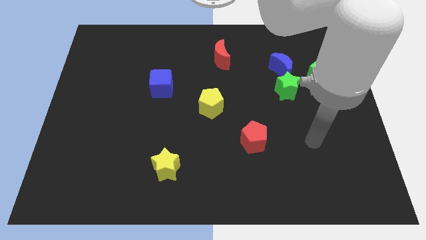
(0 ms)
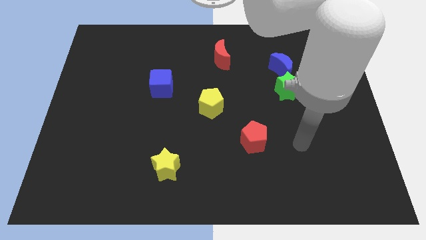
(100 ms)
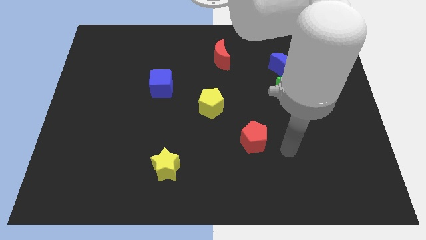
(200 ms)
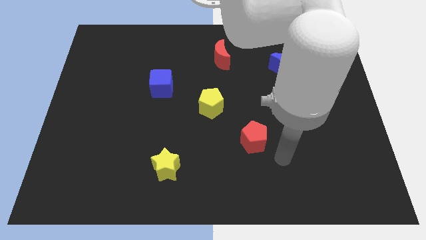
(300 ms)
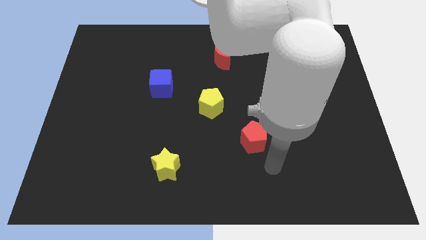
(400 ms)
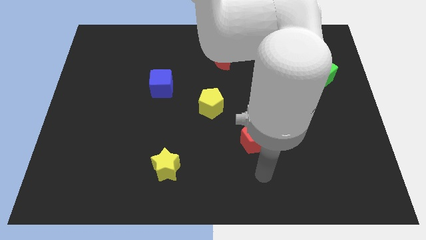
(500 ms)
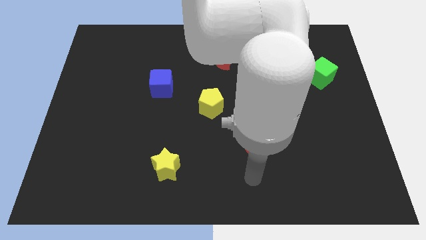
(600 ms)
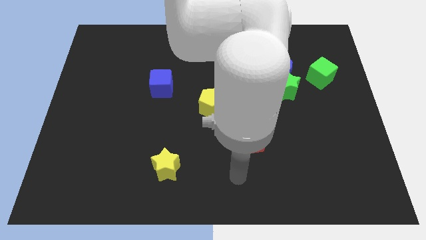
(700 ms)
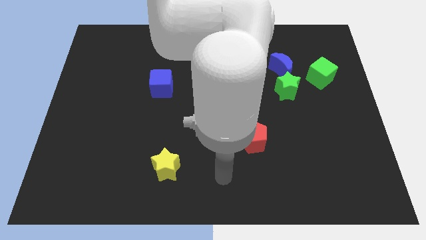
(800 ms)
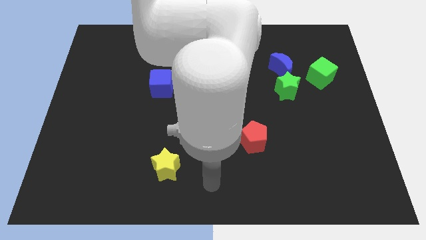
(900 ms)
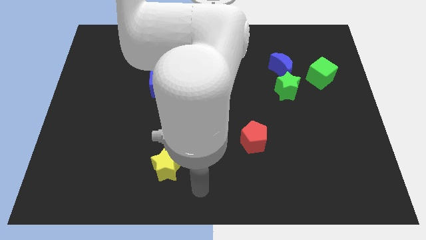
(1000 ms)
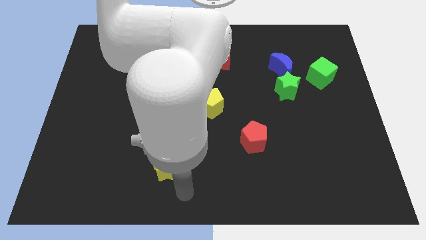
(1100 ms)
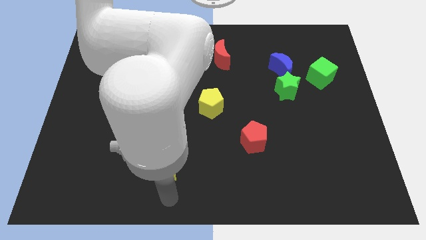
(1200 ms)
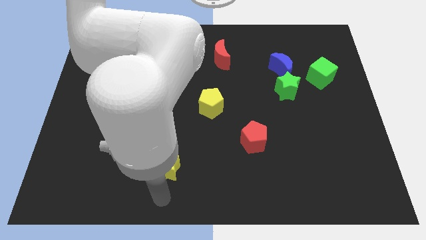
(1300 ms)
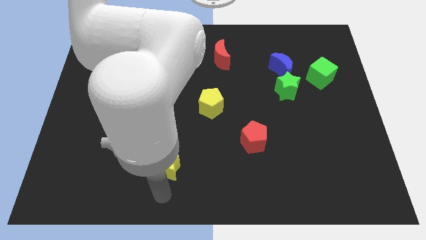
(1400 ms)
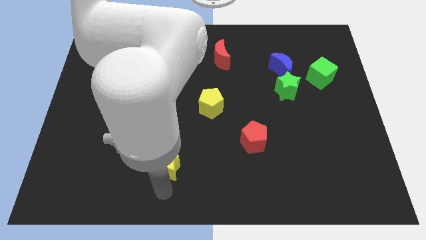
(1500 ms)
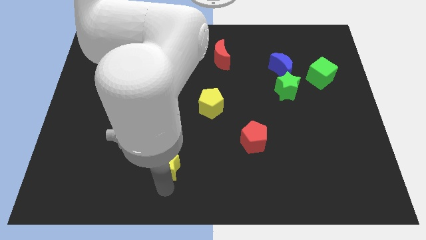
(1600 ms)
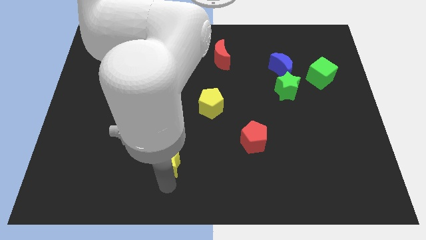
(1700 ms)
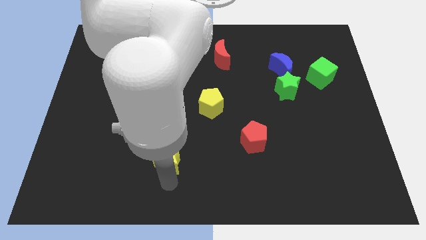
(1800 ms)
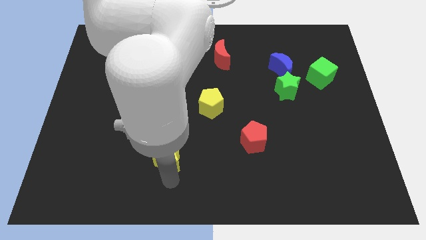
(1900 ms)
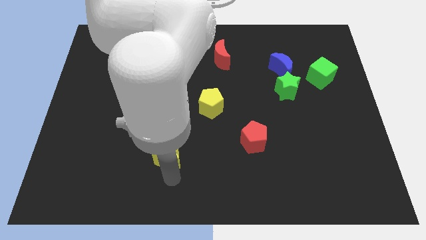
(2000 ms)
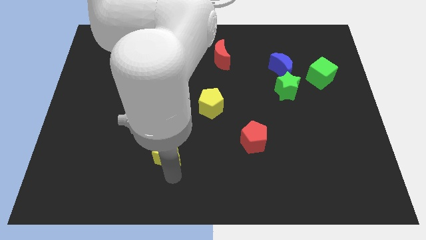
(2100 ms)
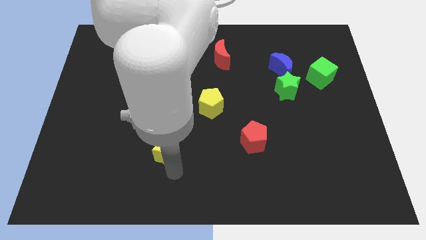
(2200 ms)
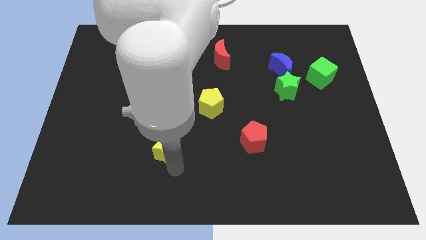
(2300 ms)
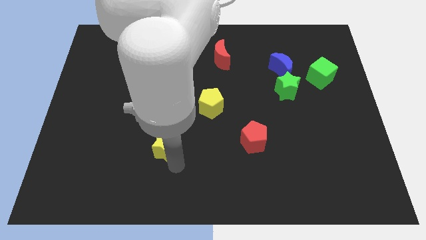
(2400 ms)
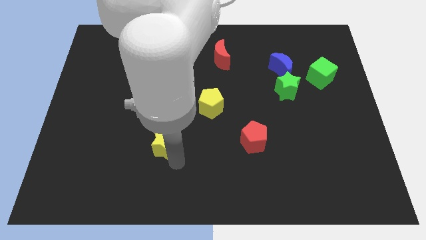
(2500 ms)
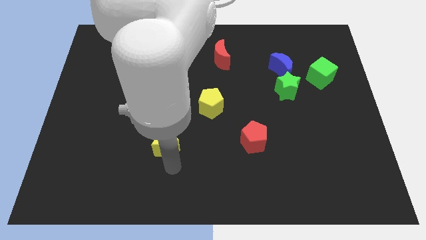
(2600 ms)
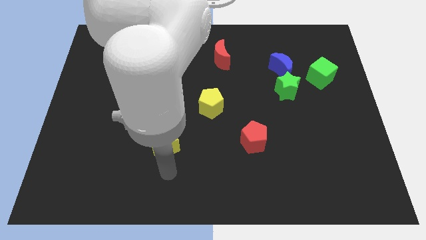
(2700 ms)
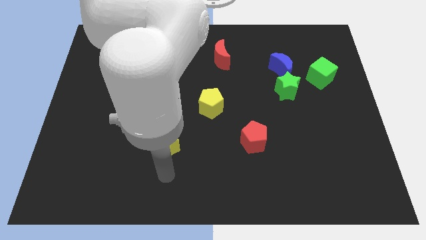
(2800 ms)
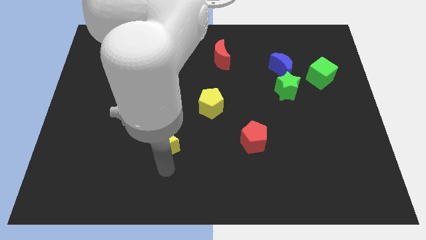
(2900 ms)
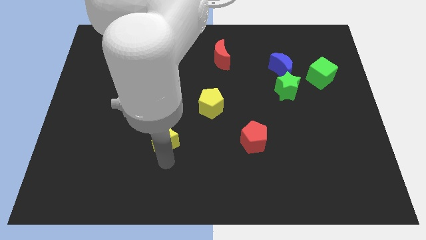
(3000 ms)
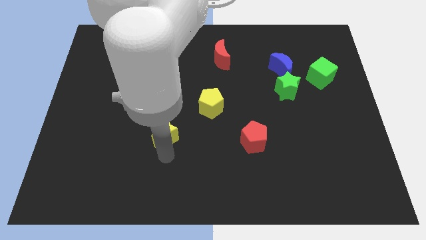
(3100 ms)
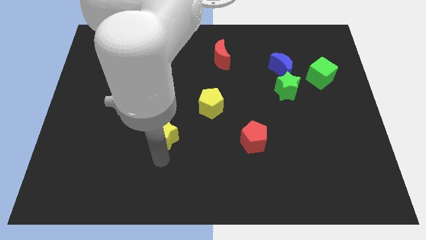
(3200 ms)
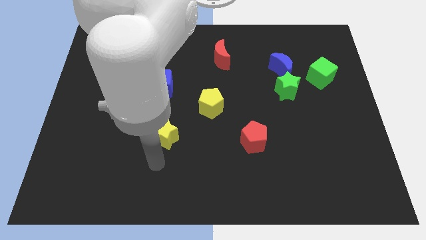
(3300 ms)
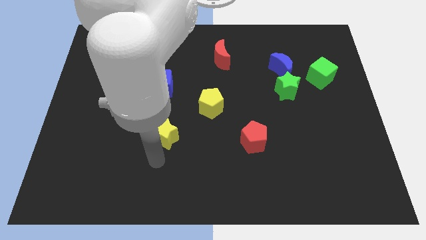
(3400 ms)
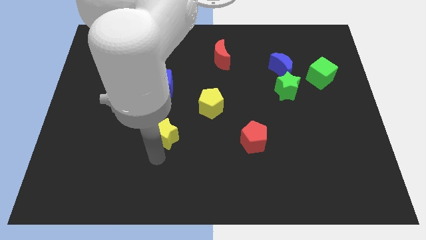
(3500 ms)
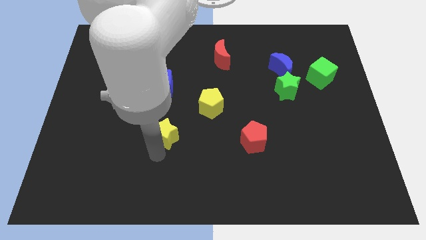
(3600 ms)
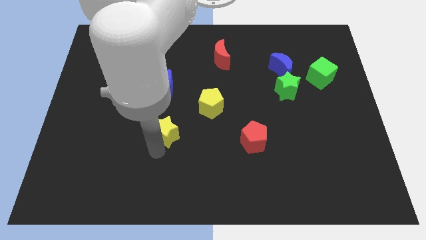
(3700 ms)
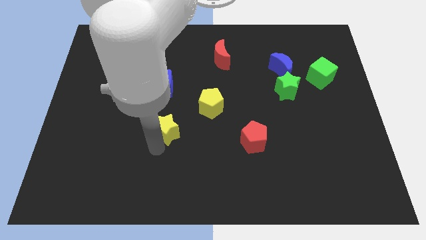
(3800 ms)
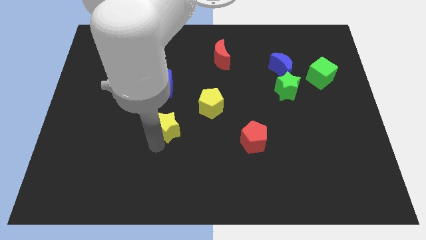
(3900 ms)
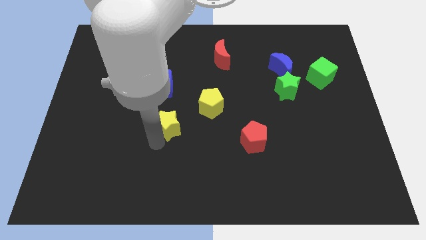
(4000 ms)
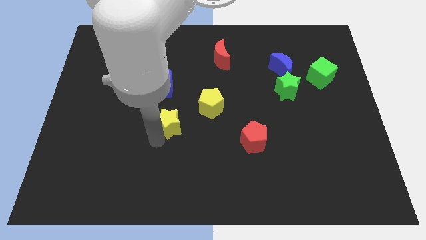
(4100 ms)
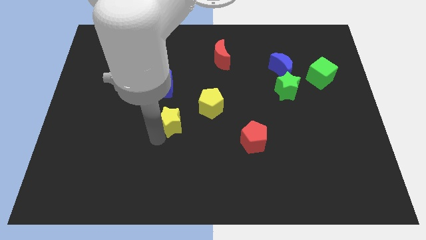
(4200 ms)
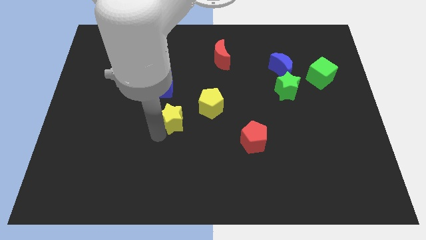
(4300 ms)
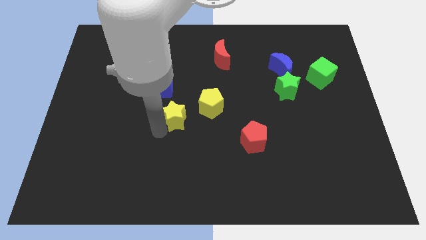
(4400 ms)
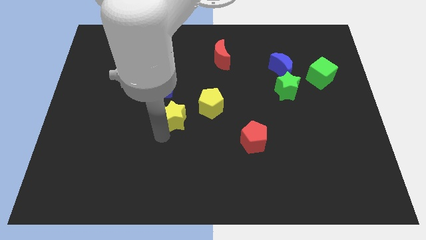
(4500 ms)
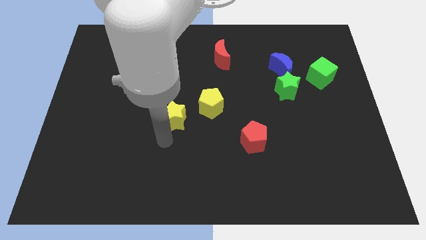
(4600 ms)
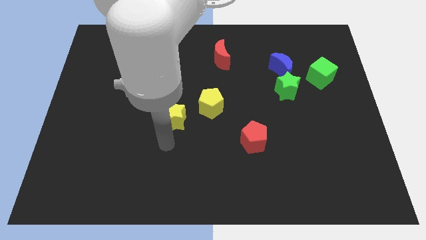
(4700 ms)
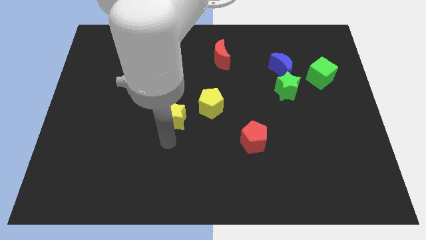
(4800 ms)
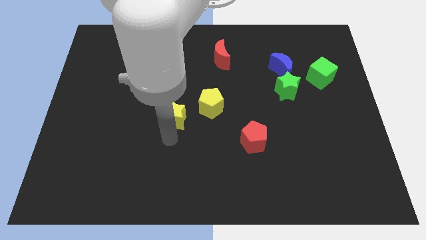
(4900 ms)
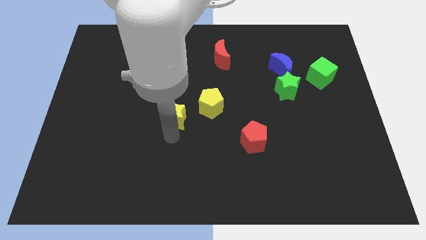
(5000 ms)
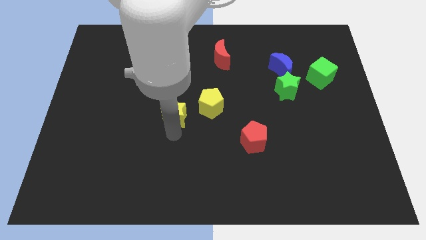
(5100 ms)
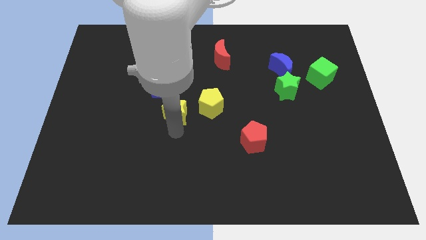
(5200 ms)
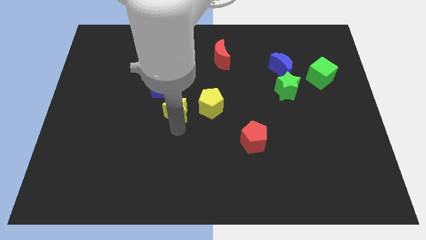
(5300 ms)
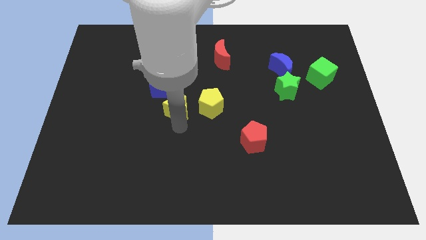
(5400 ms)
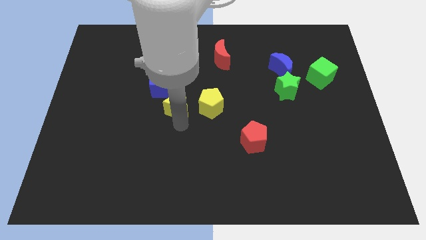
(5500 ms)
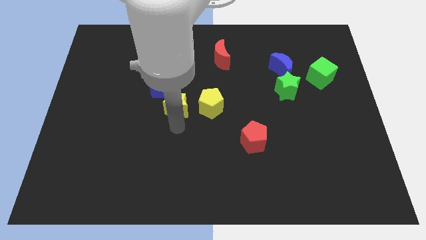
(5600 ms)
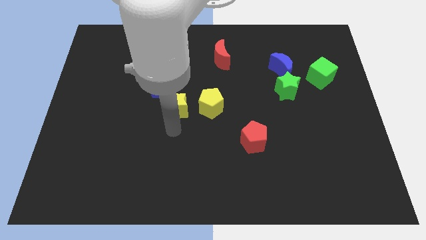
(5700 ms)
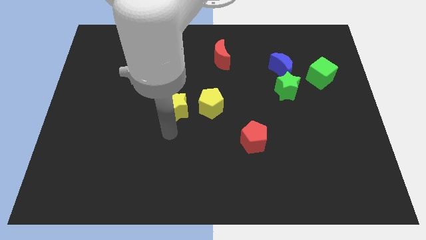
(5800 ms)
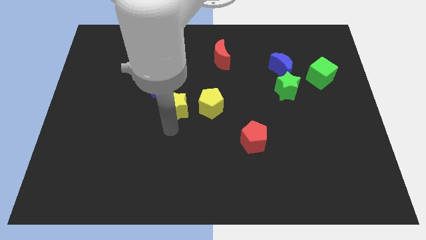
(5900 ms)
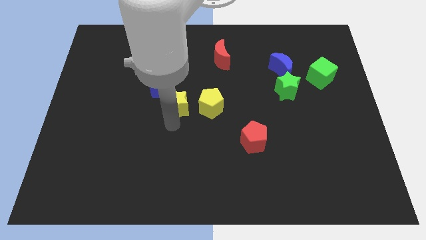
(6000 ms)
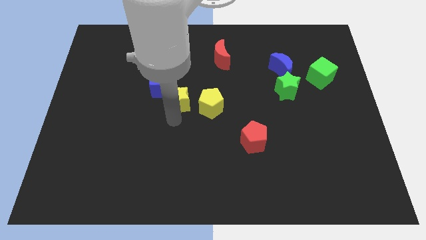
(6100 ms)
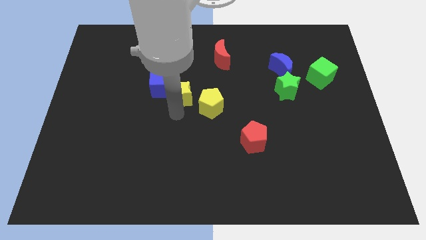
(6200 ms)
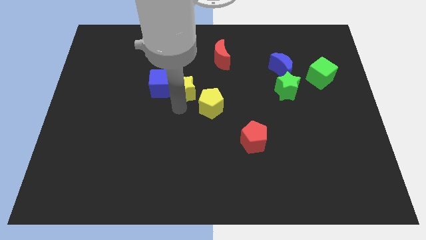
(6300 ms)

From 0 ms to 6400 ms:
push the yellow star up

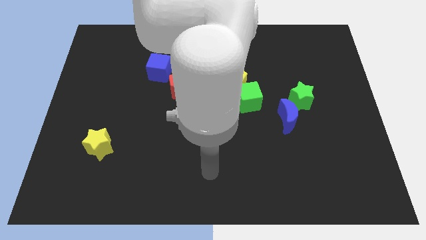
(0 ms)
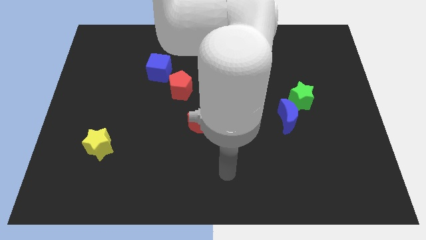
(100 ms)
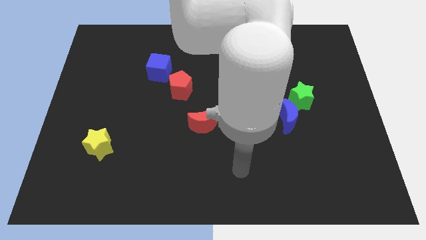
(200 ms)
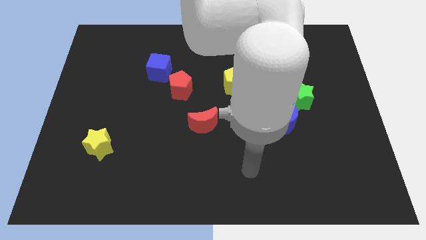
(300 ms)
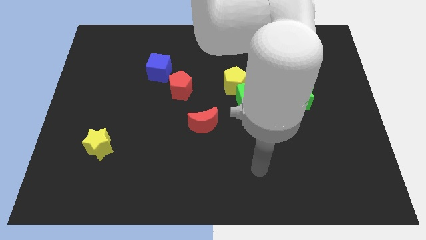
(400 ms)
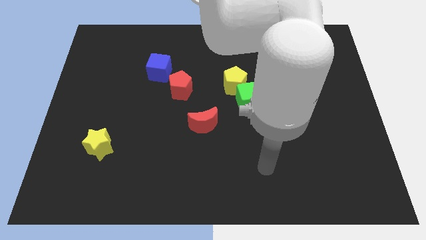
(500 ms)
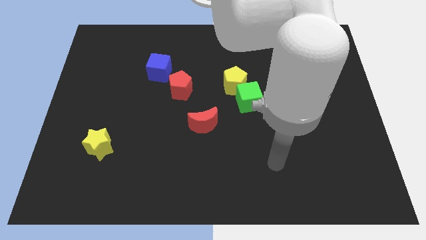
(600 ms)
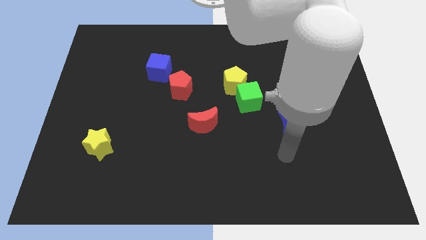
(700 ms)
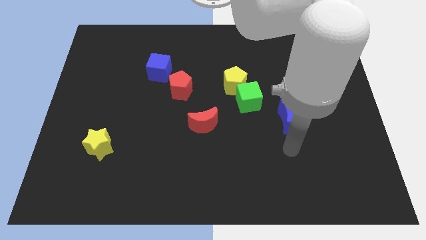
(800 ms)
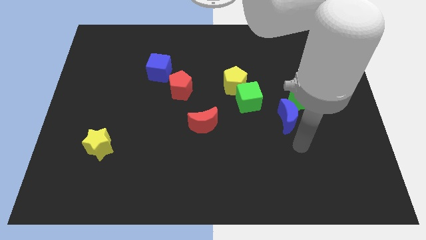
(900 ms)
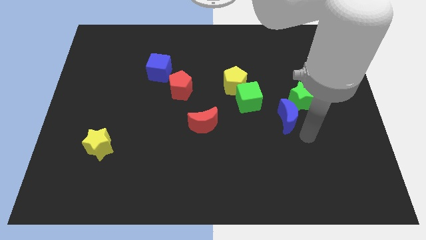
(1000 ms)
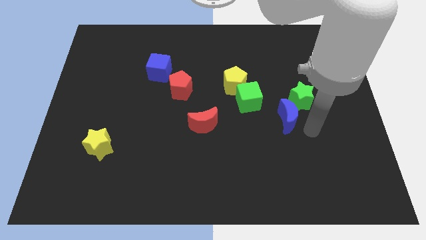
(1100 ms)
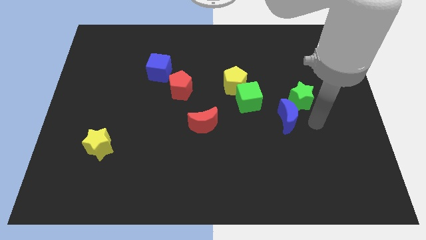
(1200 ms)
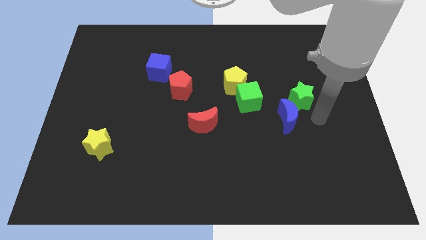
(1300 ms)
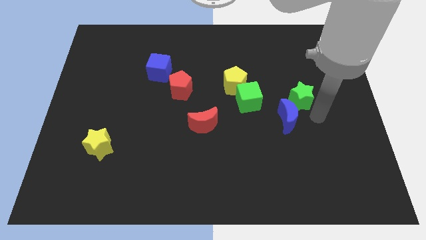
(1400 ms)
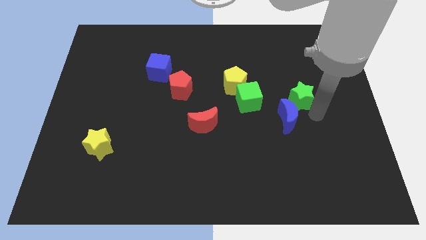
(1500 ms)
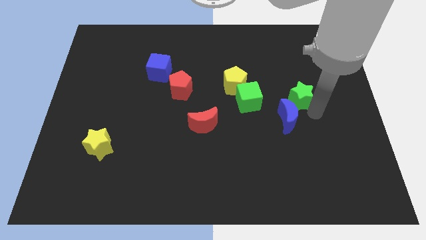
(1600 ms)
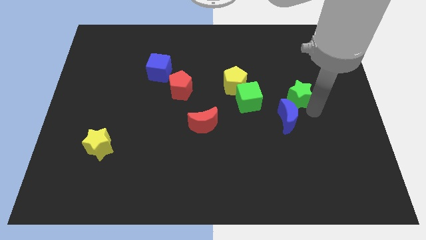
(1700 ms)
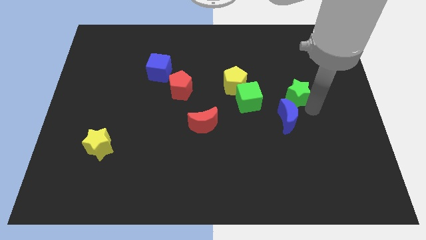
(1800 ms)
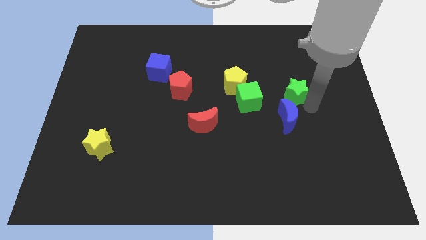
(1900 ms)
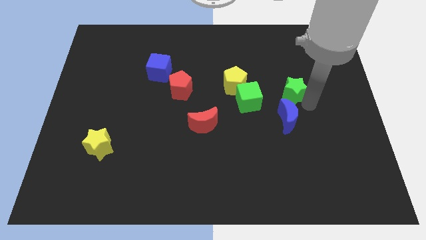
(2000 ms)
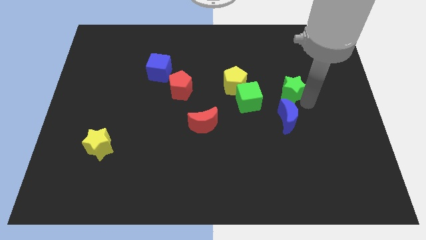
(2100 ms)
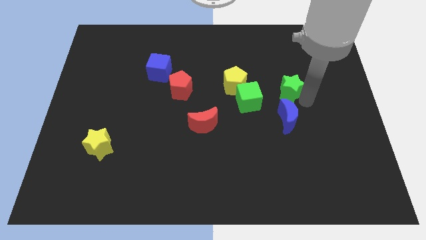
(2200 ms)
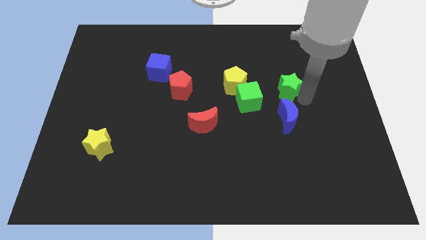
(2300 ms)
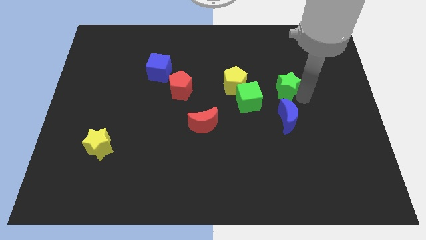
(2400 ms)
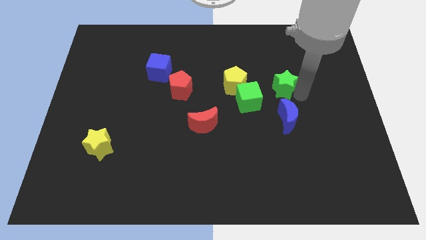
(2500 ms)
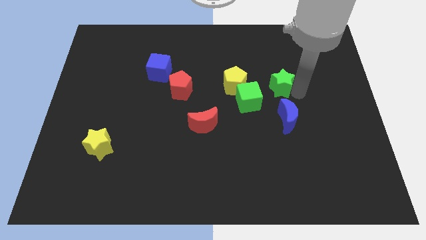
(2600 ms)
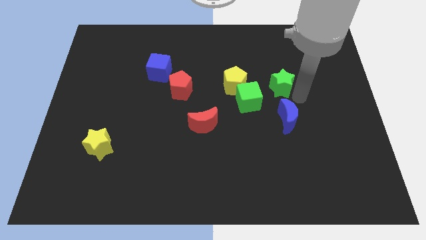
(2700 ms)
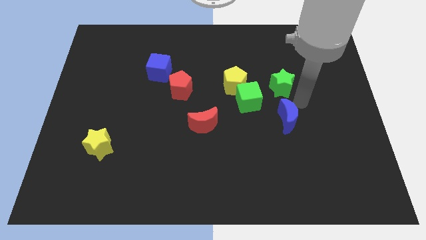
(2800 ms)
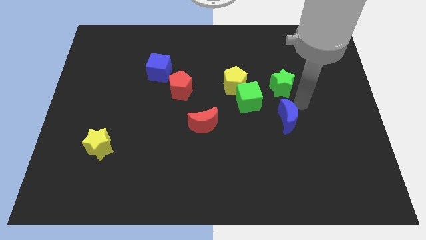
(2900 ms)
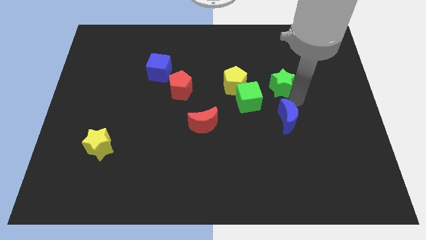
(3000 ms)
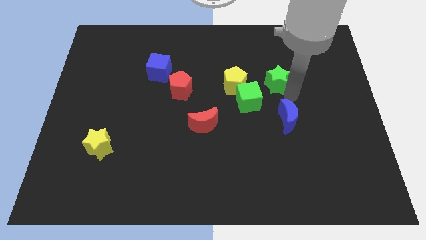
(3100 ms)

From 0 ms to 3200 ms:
move the green star a bit diagonally up and to the left
